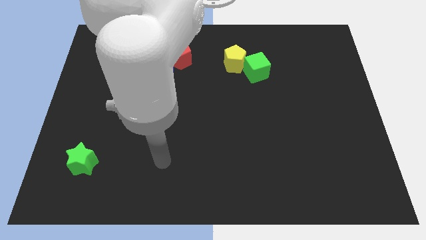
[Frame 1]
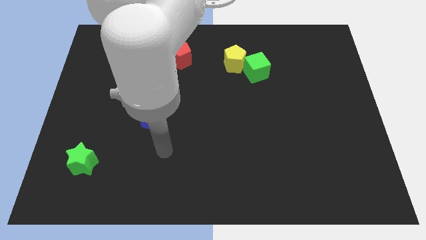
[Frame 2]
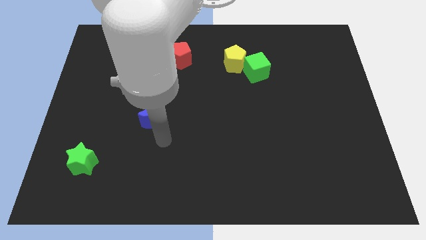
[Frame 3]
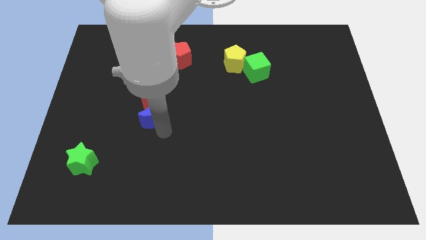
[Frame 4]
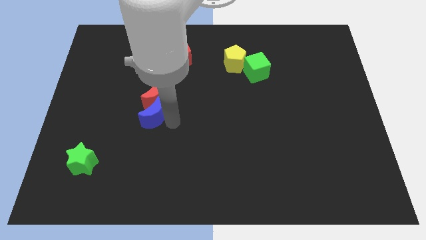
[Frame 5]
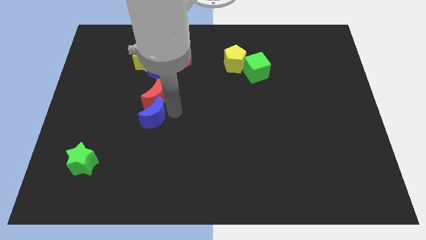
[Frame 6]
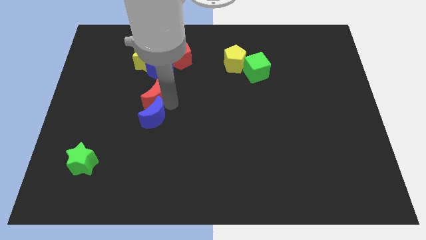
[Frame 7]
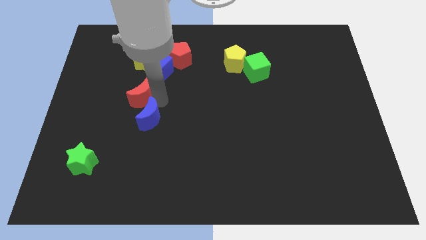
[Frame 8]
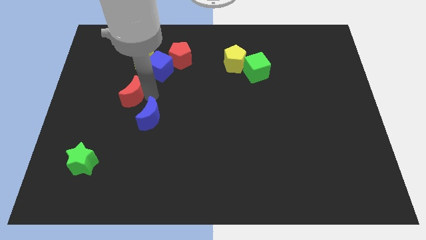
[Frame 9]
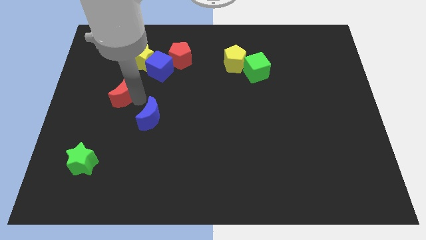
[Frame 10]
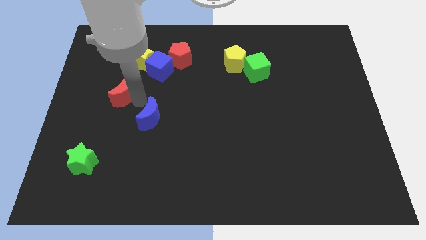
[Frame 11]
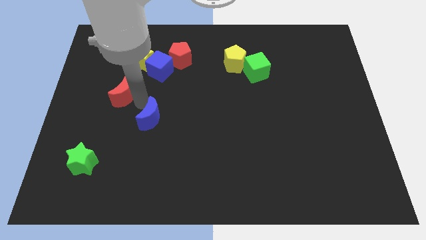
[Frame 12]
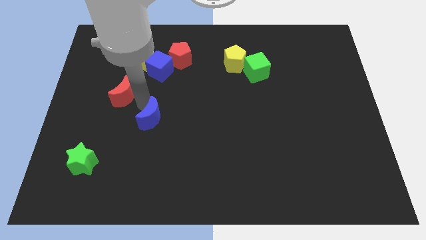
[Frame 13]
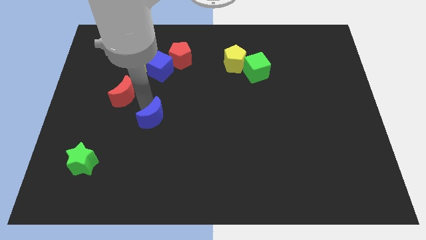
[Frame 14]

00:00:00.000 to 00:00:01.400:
separate the blue moon from the red moon

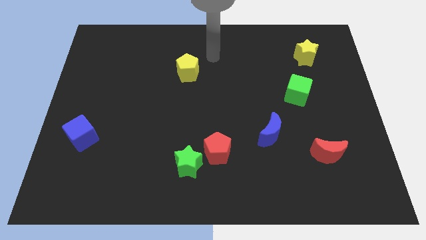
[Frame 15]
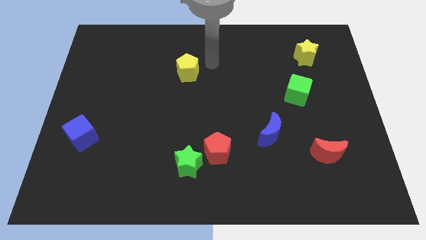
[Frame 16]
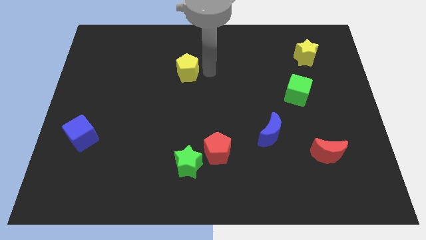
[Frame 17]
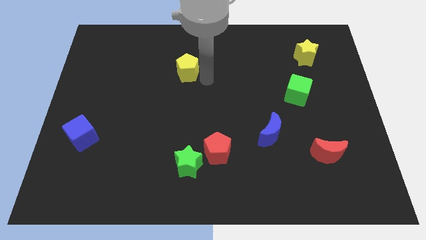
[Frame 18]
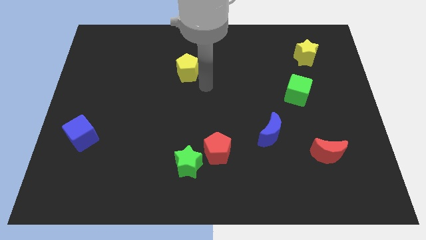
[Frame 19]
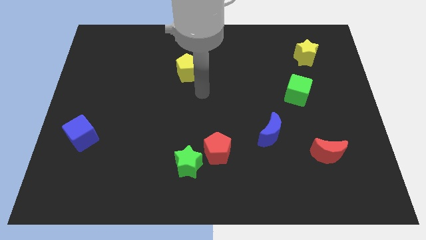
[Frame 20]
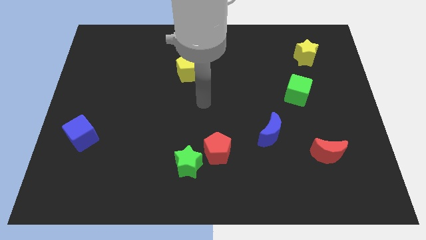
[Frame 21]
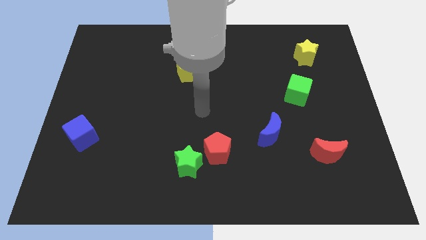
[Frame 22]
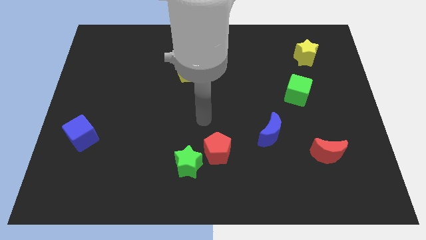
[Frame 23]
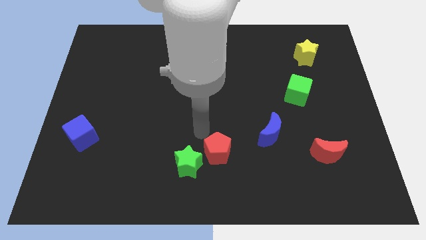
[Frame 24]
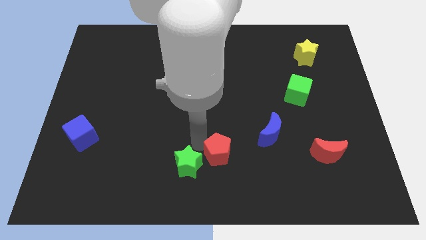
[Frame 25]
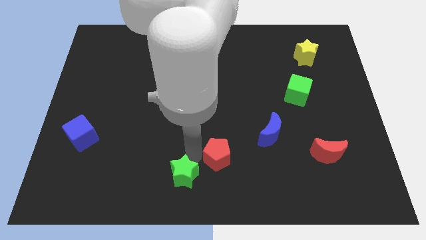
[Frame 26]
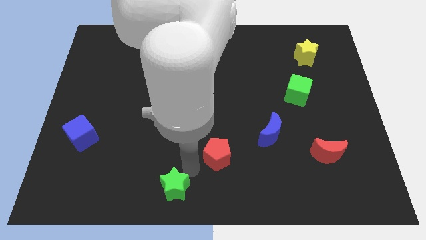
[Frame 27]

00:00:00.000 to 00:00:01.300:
separate the red pentagon from the green star

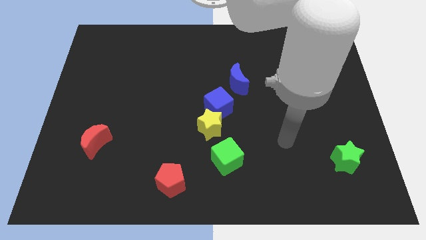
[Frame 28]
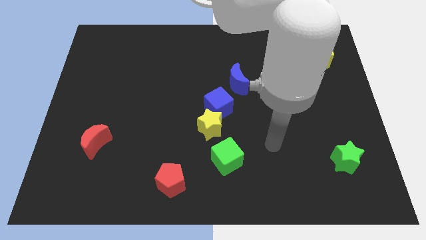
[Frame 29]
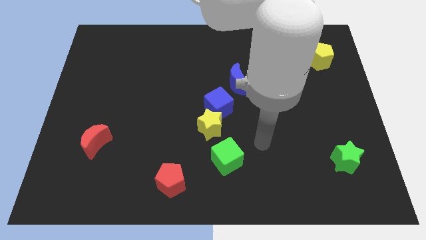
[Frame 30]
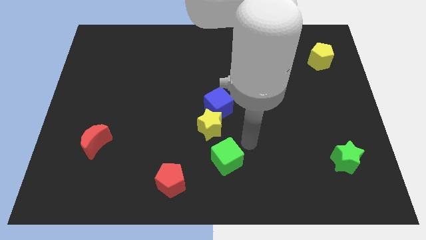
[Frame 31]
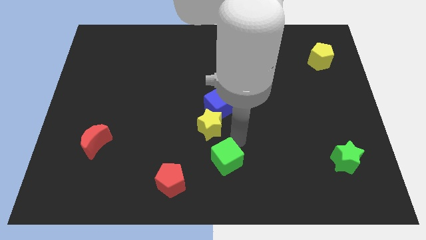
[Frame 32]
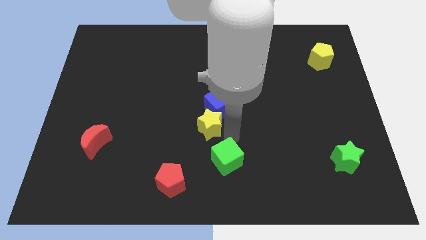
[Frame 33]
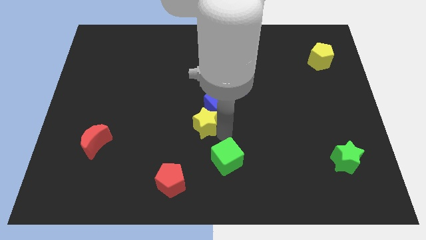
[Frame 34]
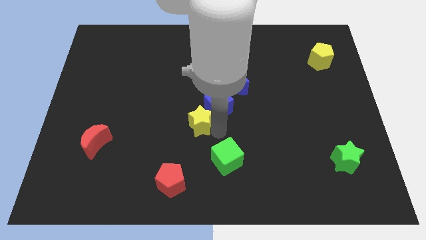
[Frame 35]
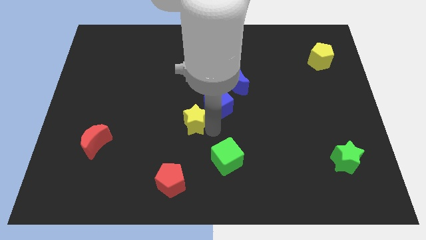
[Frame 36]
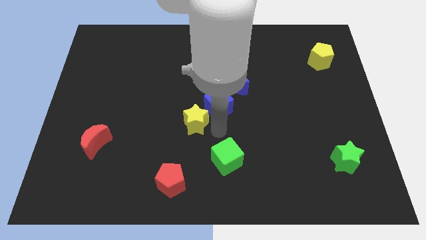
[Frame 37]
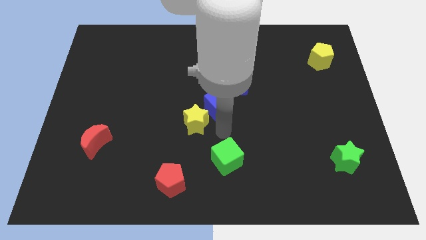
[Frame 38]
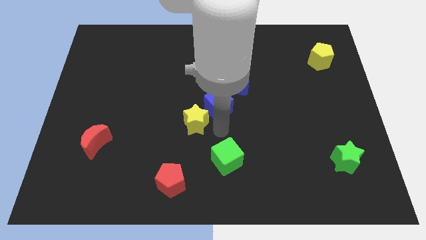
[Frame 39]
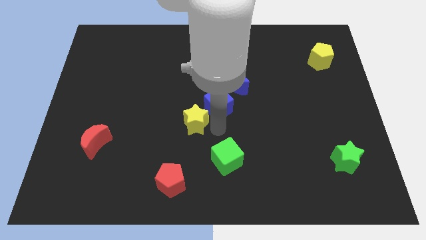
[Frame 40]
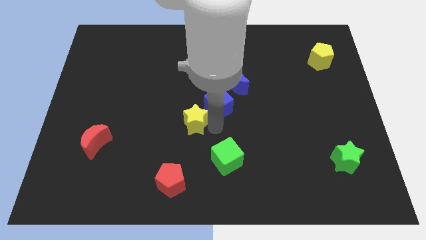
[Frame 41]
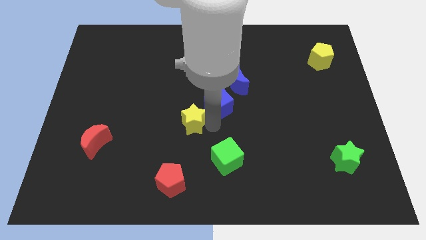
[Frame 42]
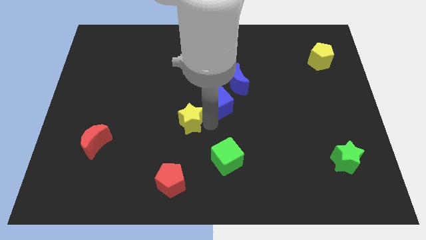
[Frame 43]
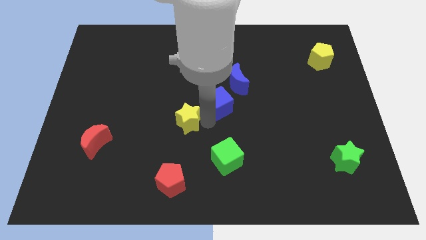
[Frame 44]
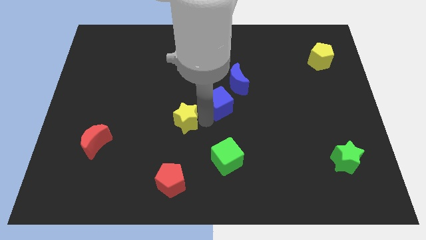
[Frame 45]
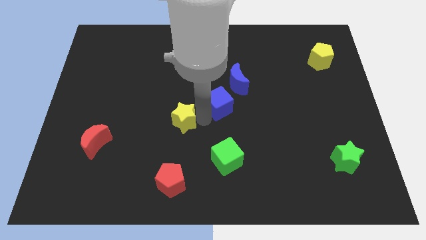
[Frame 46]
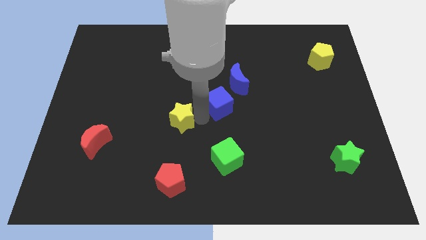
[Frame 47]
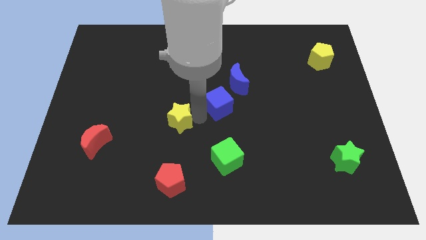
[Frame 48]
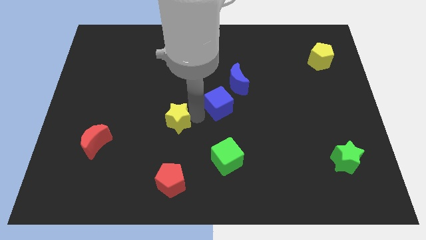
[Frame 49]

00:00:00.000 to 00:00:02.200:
pull the yellow star apart from the blue cube and green cube

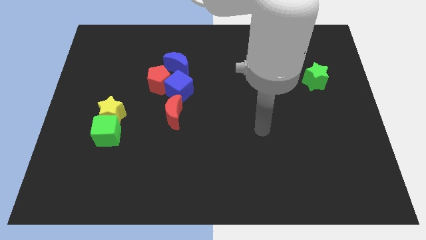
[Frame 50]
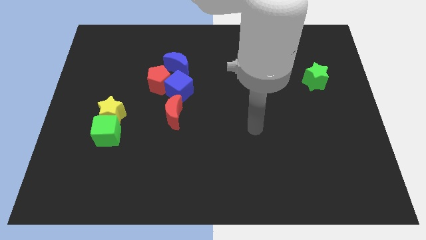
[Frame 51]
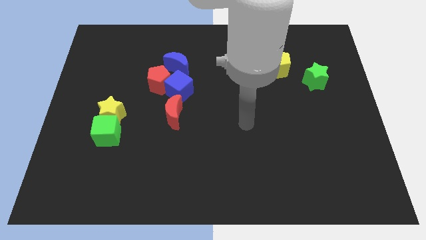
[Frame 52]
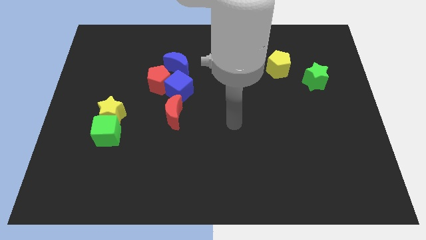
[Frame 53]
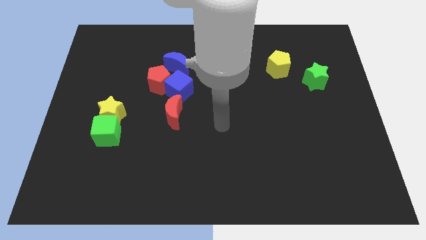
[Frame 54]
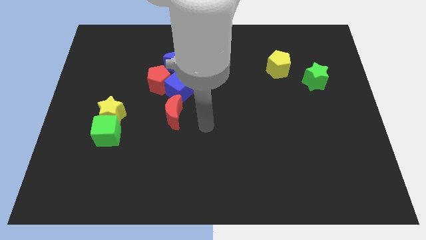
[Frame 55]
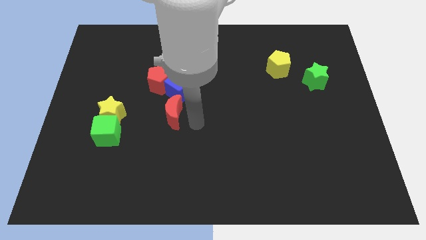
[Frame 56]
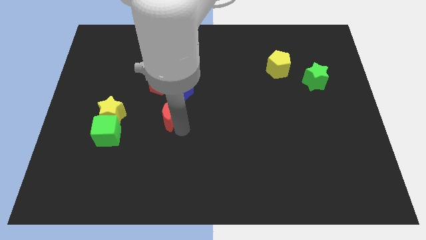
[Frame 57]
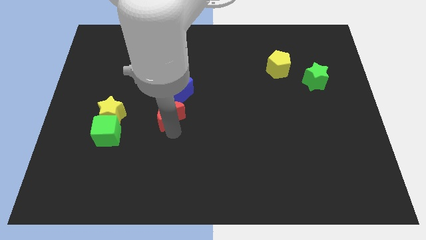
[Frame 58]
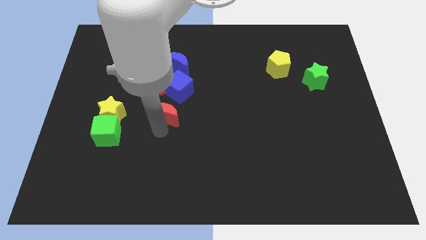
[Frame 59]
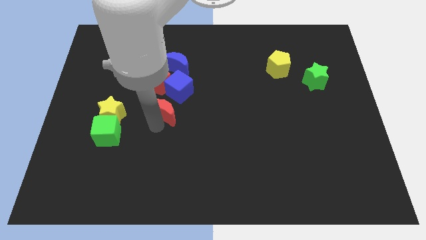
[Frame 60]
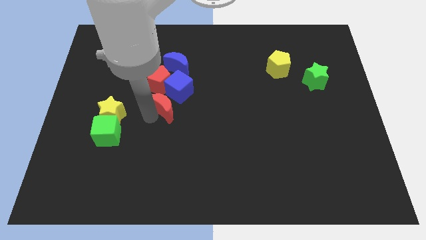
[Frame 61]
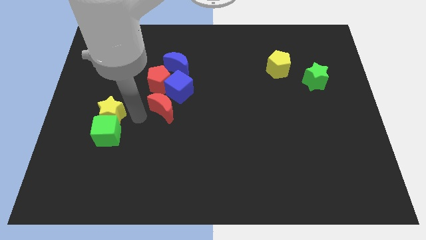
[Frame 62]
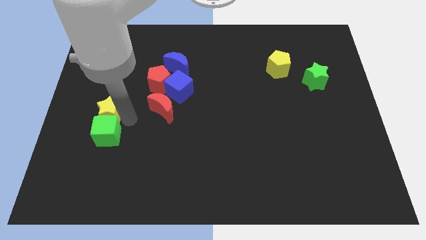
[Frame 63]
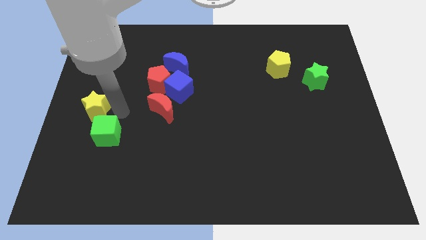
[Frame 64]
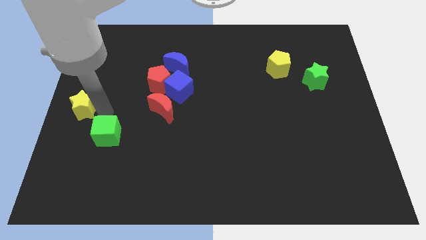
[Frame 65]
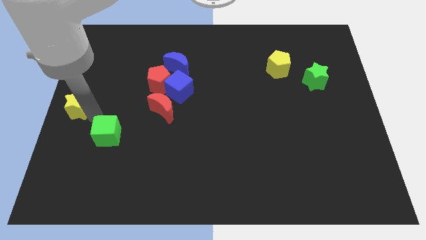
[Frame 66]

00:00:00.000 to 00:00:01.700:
separate the green cube from the yellow star

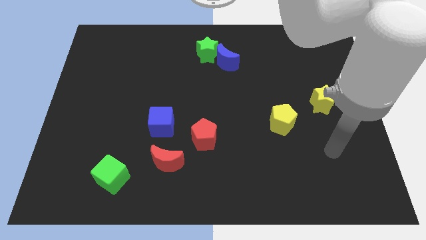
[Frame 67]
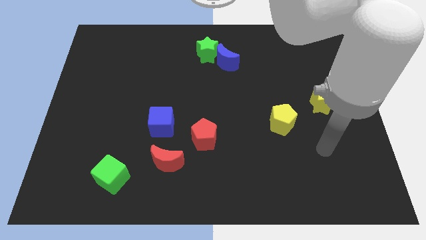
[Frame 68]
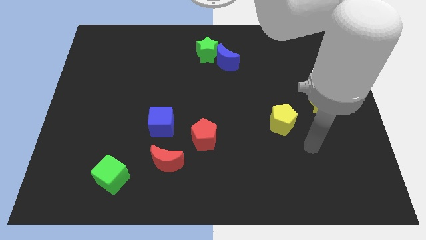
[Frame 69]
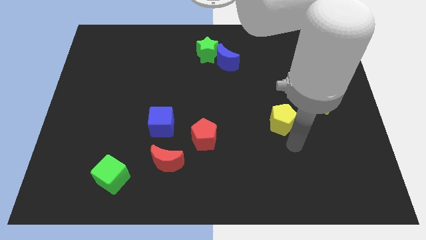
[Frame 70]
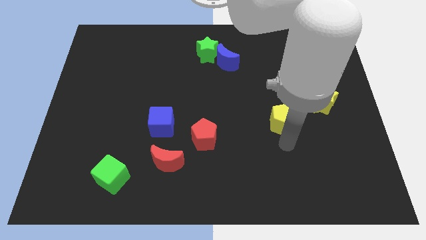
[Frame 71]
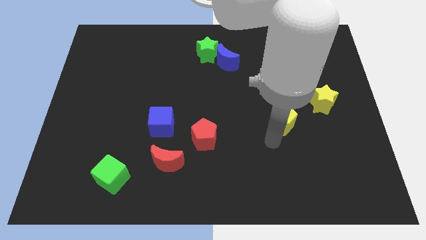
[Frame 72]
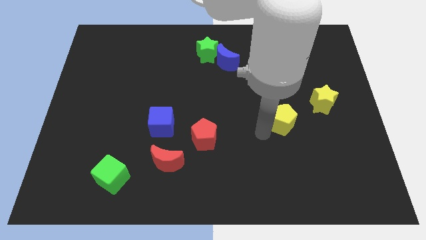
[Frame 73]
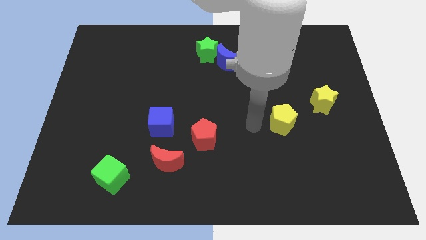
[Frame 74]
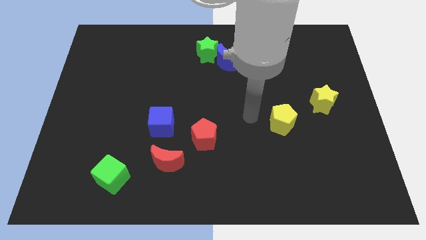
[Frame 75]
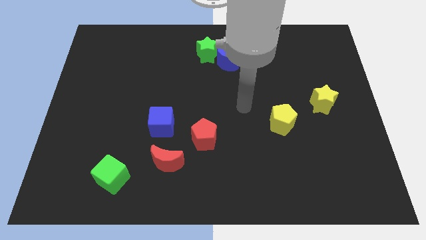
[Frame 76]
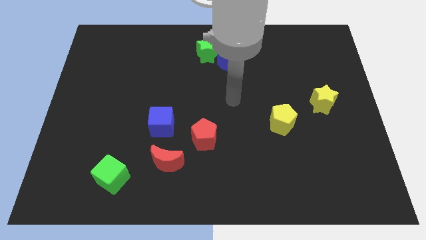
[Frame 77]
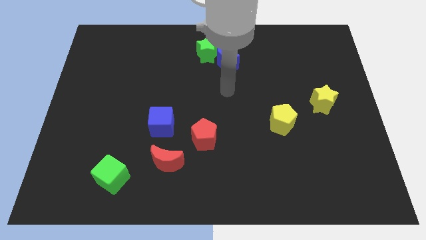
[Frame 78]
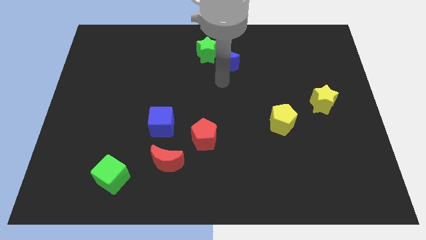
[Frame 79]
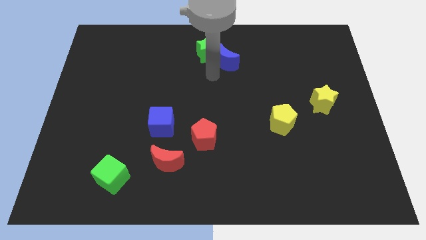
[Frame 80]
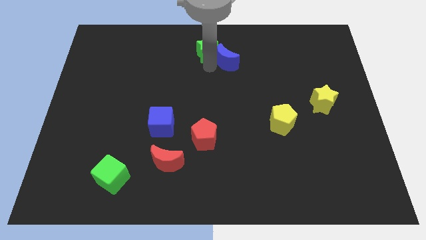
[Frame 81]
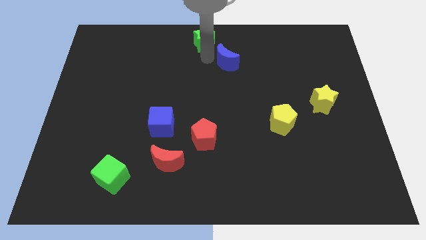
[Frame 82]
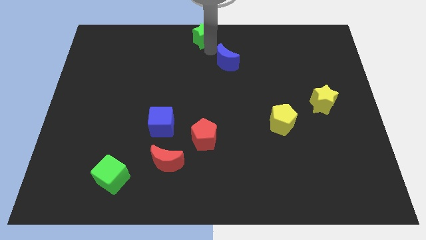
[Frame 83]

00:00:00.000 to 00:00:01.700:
move the blue moon away from the green star

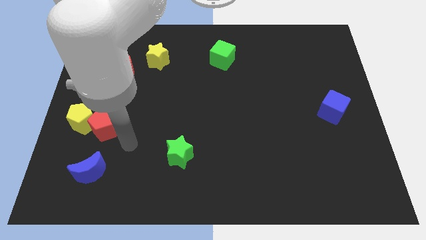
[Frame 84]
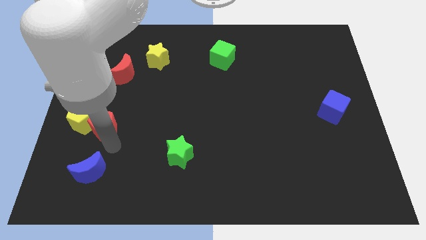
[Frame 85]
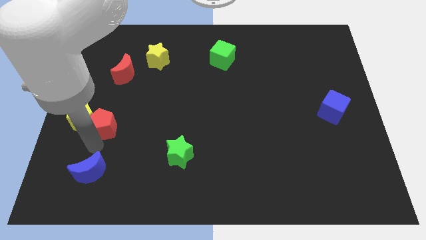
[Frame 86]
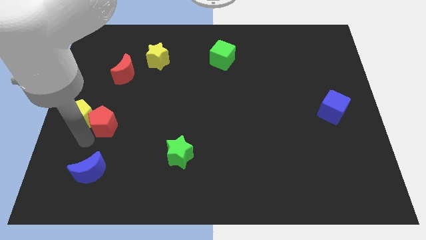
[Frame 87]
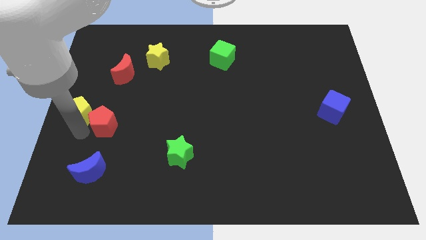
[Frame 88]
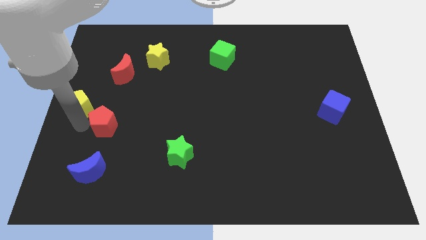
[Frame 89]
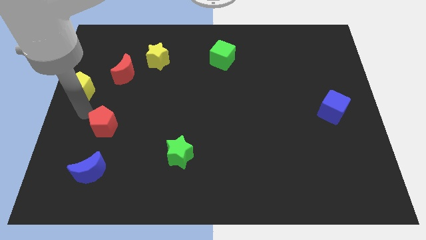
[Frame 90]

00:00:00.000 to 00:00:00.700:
separate the red pentagon from the yellow pentagon

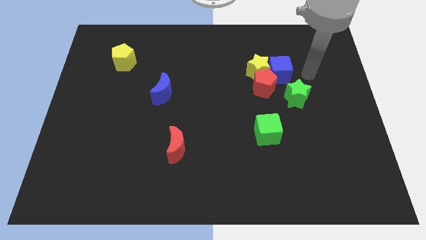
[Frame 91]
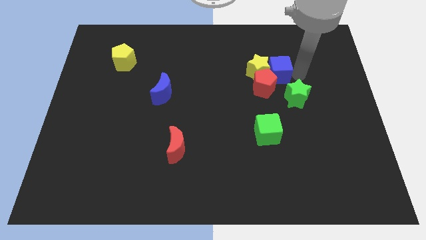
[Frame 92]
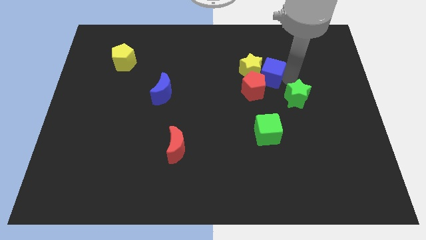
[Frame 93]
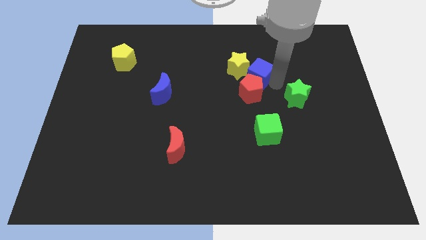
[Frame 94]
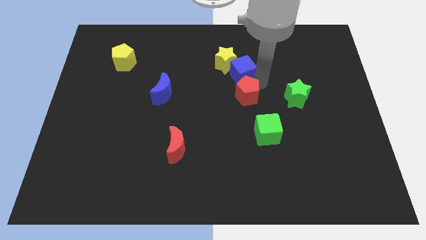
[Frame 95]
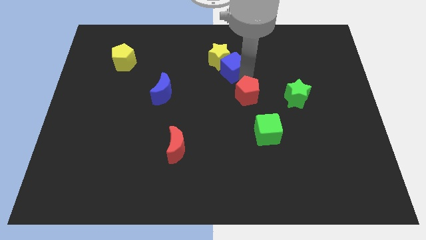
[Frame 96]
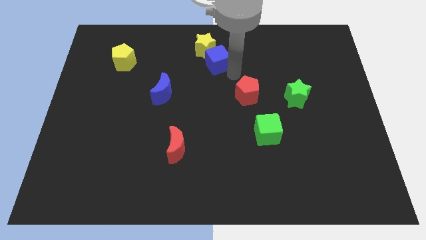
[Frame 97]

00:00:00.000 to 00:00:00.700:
separate the yellow star from the red pentagon and blue cube
